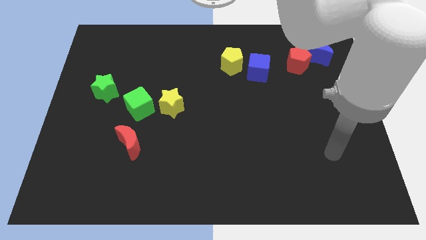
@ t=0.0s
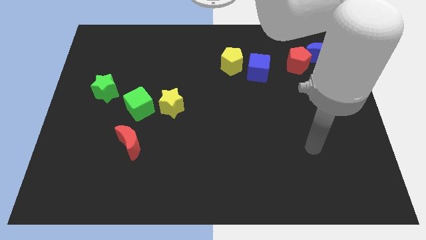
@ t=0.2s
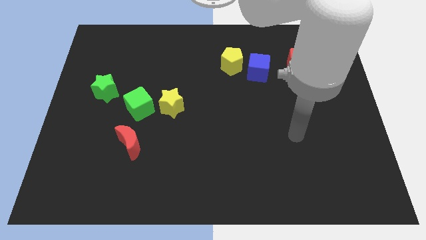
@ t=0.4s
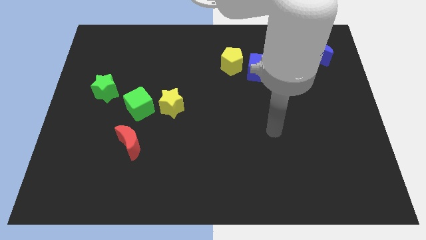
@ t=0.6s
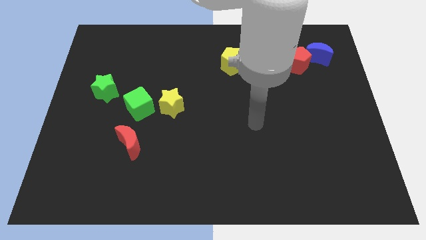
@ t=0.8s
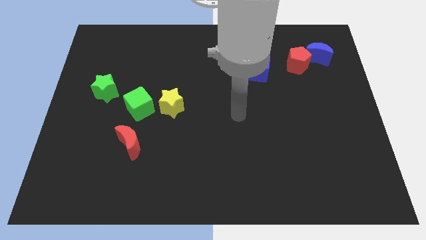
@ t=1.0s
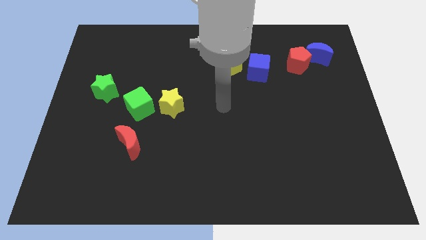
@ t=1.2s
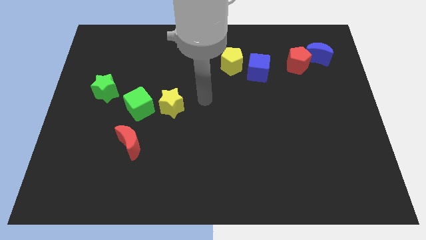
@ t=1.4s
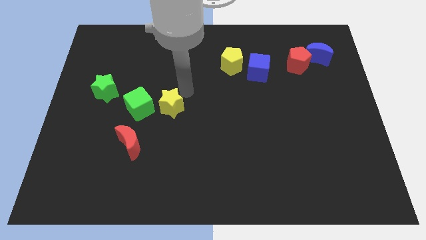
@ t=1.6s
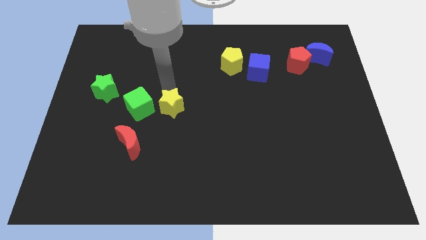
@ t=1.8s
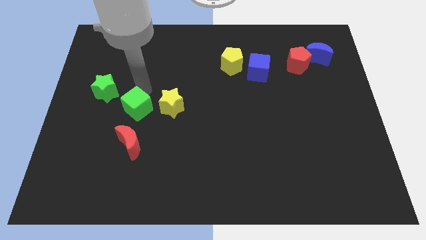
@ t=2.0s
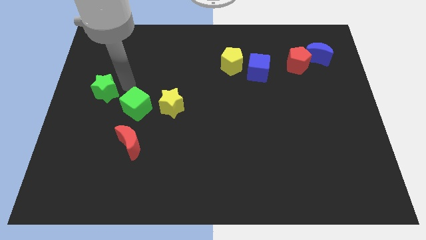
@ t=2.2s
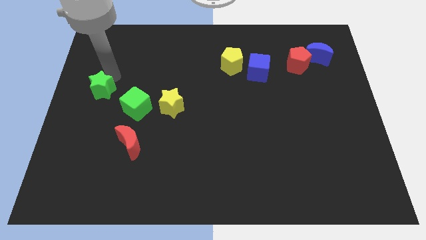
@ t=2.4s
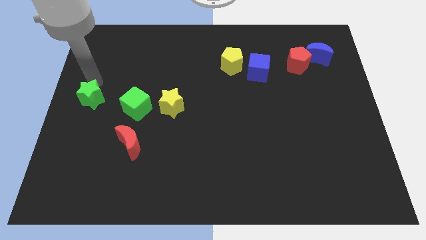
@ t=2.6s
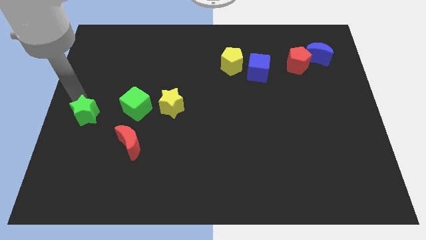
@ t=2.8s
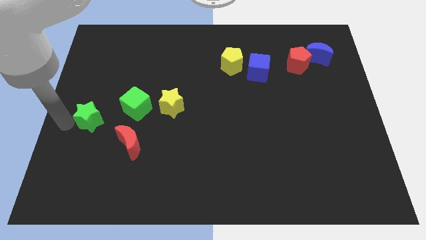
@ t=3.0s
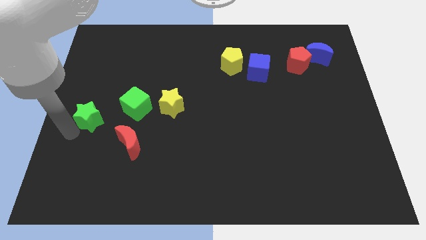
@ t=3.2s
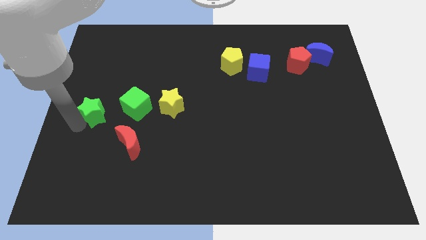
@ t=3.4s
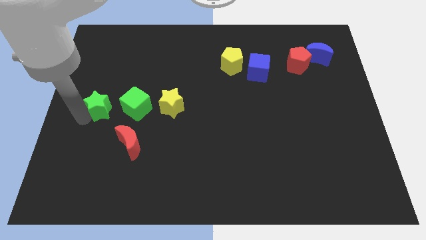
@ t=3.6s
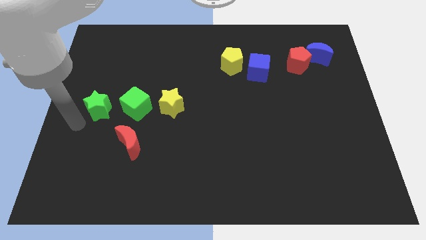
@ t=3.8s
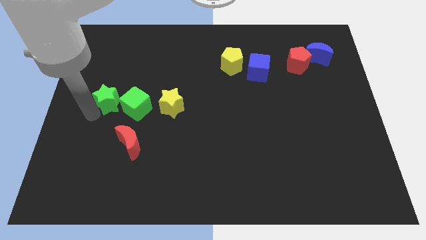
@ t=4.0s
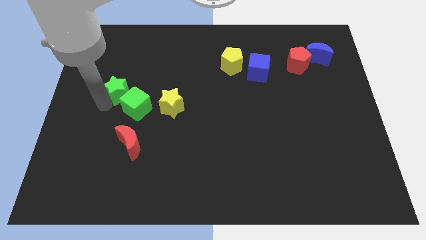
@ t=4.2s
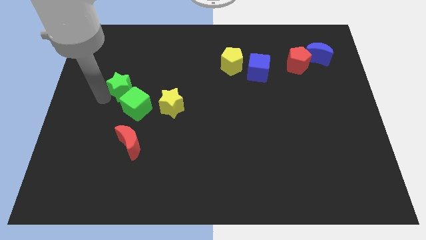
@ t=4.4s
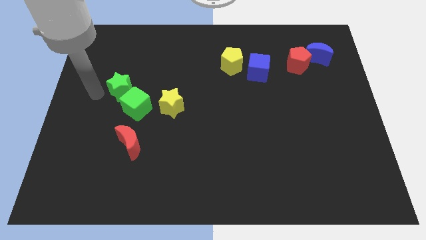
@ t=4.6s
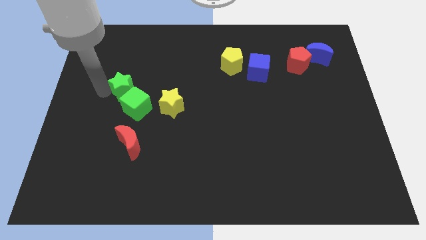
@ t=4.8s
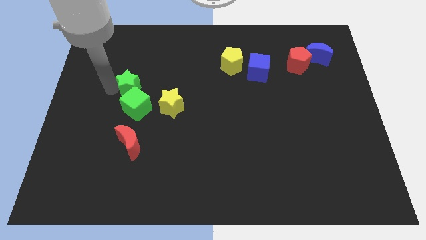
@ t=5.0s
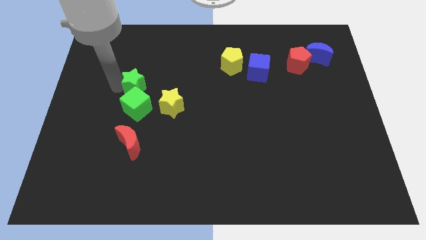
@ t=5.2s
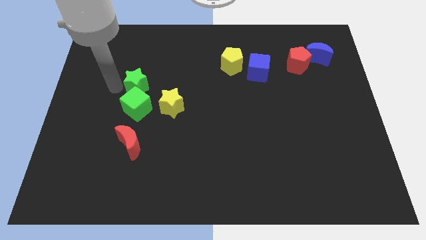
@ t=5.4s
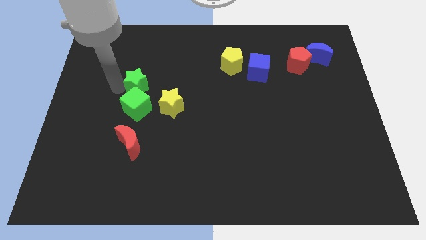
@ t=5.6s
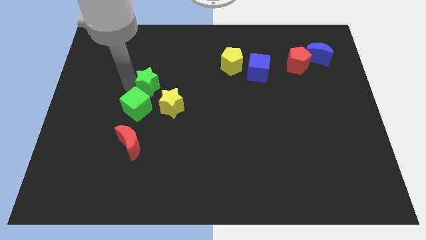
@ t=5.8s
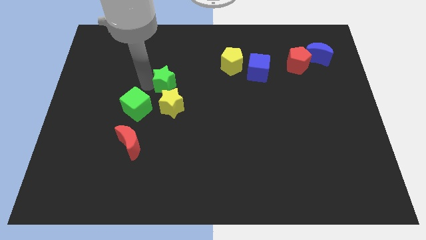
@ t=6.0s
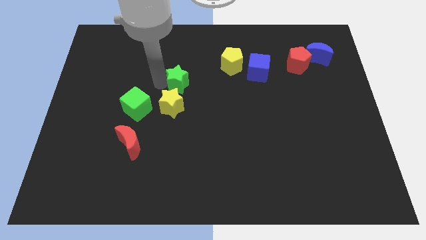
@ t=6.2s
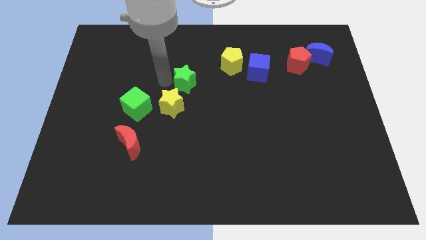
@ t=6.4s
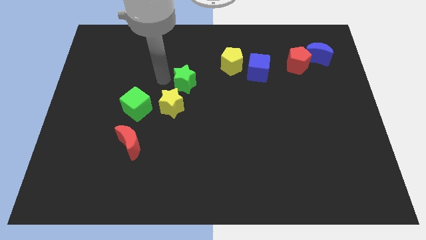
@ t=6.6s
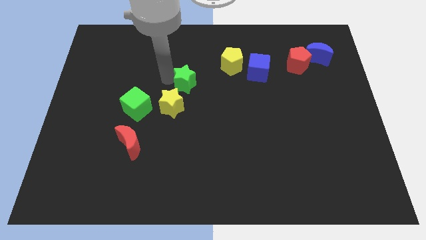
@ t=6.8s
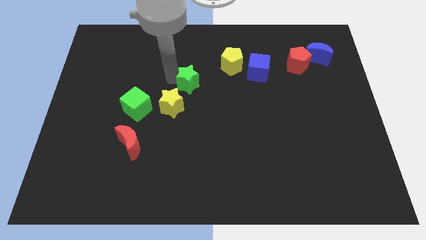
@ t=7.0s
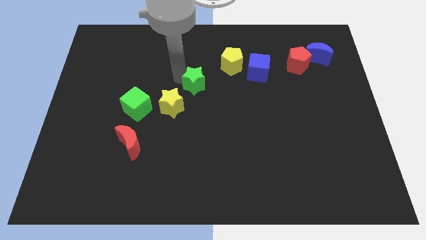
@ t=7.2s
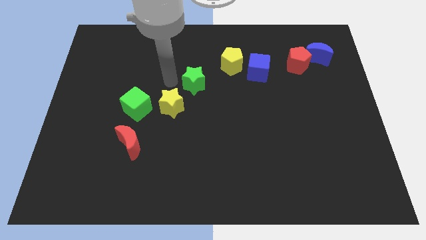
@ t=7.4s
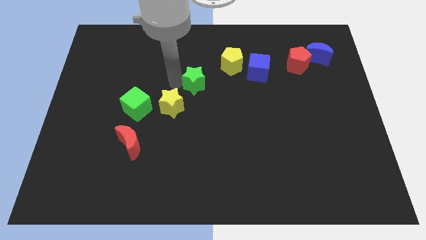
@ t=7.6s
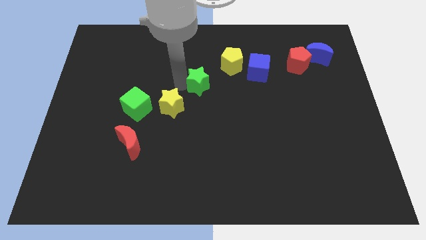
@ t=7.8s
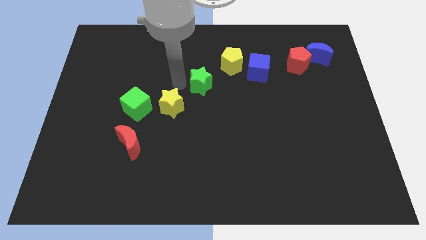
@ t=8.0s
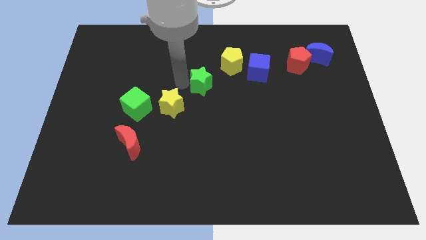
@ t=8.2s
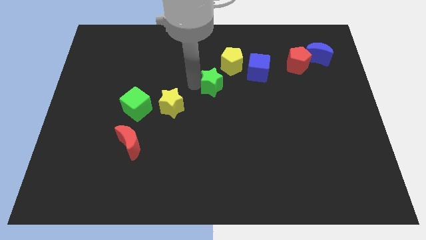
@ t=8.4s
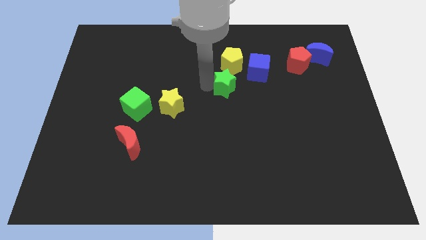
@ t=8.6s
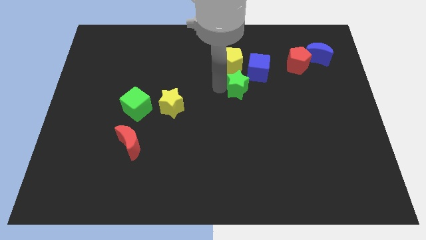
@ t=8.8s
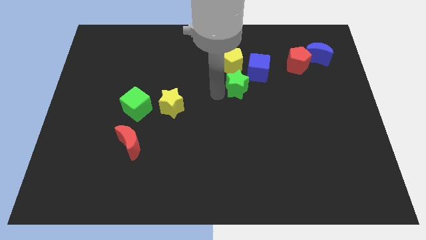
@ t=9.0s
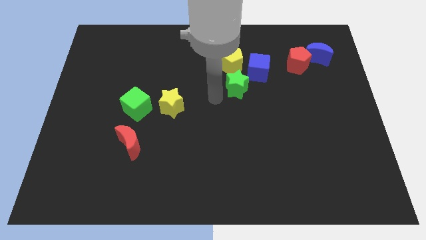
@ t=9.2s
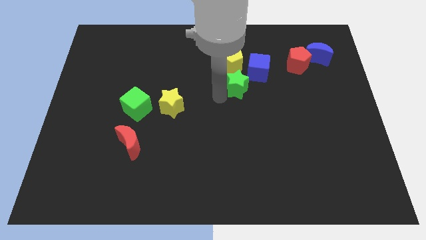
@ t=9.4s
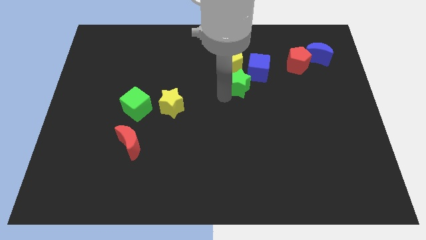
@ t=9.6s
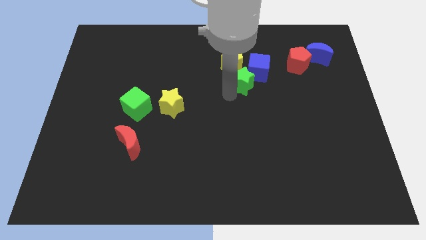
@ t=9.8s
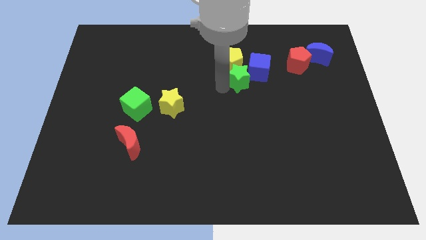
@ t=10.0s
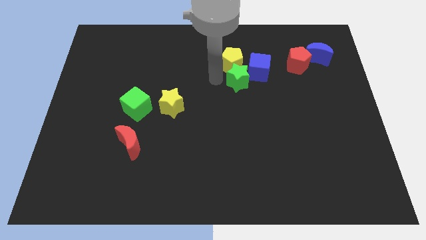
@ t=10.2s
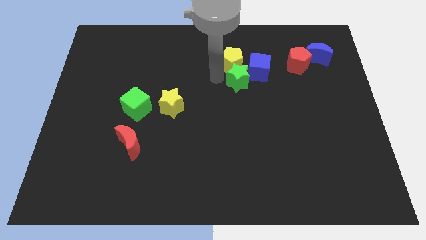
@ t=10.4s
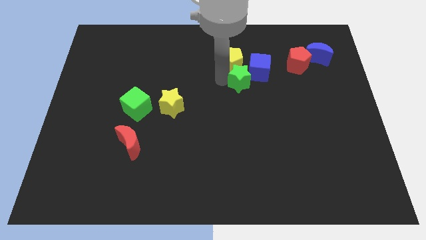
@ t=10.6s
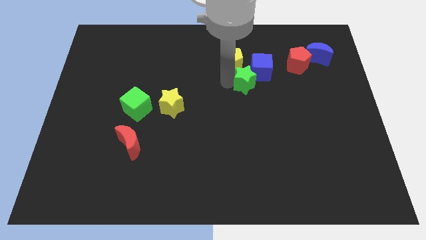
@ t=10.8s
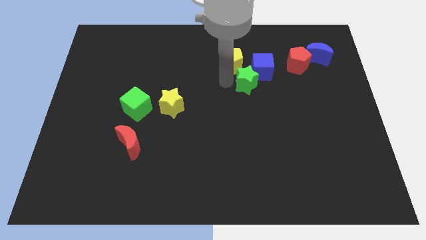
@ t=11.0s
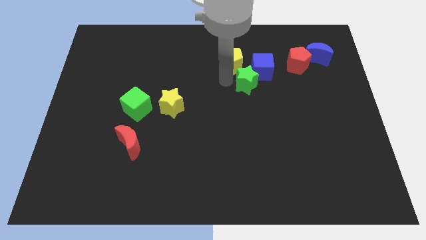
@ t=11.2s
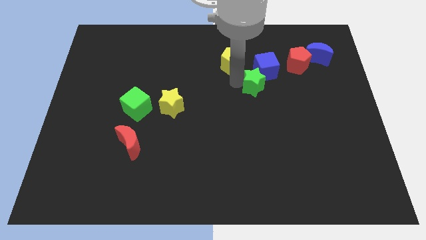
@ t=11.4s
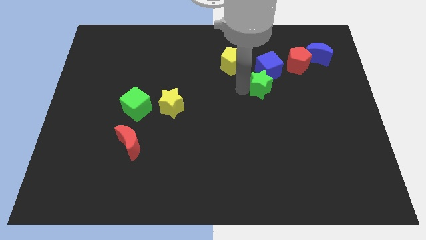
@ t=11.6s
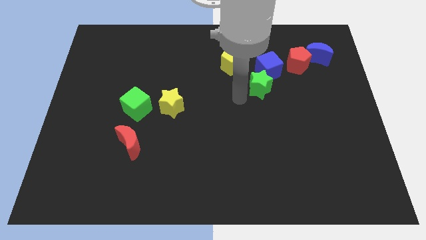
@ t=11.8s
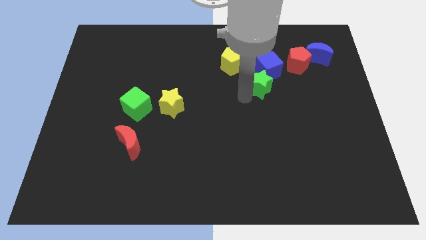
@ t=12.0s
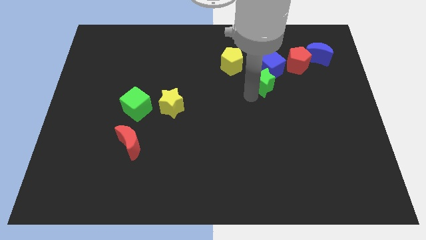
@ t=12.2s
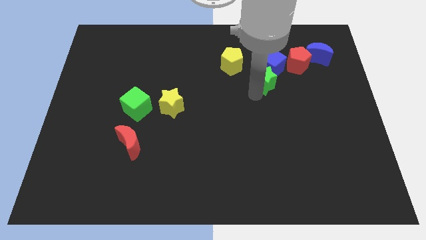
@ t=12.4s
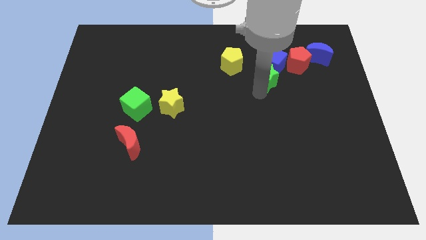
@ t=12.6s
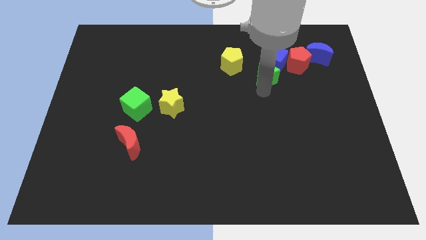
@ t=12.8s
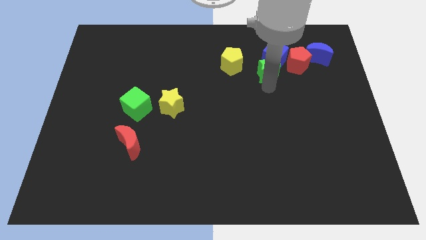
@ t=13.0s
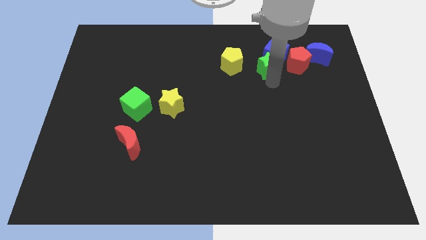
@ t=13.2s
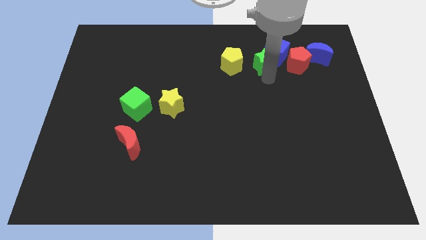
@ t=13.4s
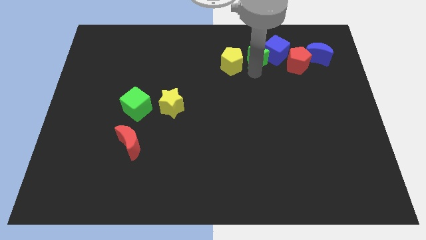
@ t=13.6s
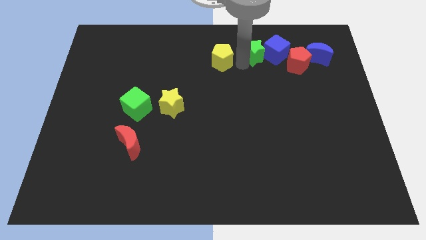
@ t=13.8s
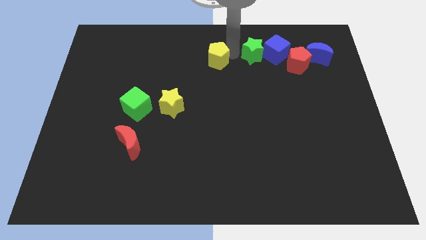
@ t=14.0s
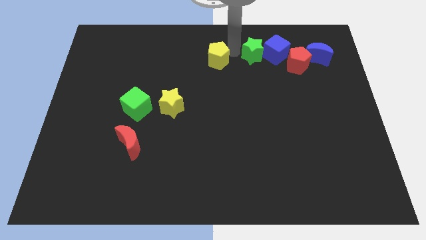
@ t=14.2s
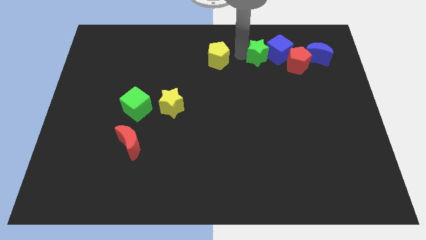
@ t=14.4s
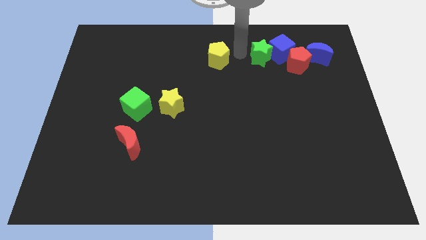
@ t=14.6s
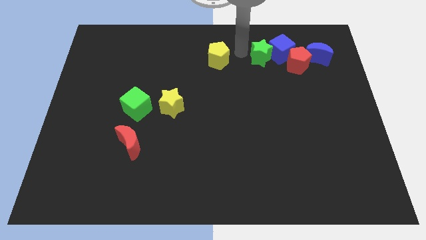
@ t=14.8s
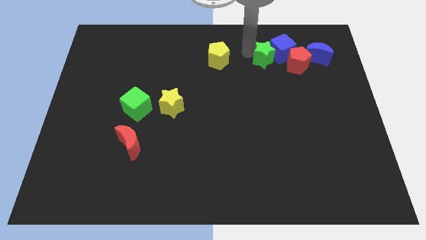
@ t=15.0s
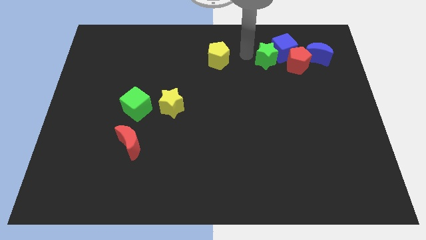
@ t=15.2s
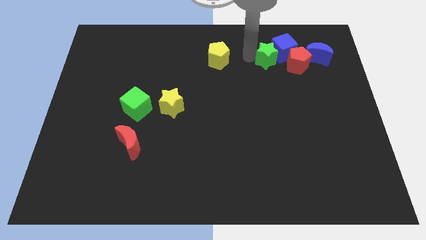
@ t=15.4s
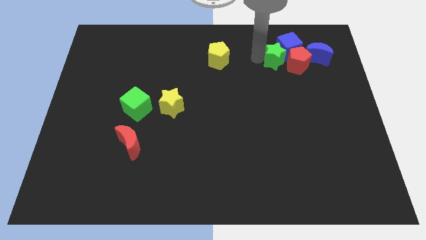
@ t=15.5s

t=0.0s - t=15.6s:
slide the green star towards the red pentagon

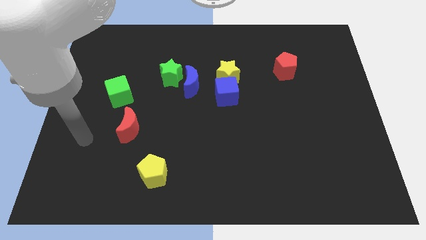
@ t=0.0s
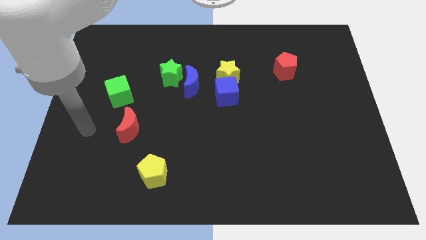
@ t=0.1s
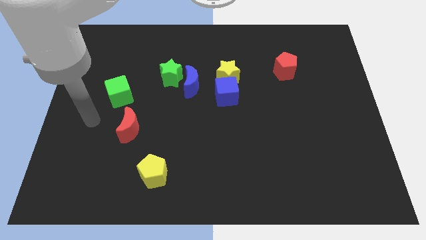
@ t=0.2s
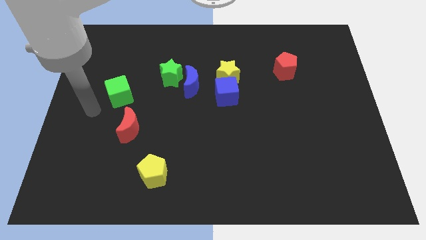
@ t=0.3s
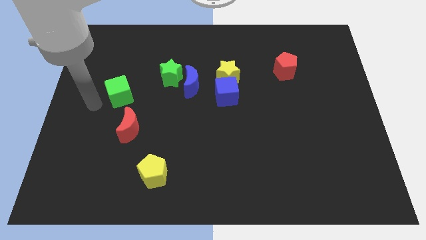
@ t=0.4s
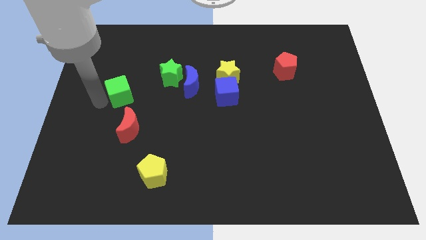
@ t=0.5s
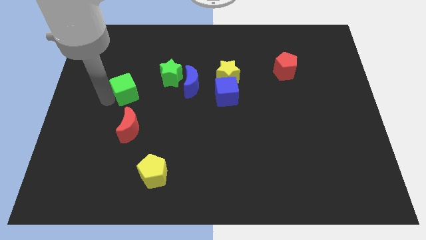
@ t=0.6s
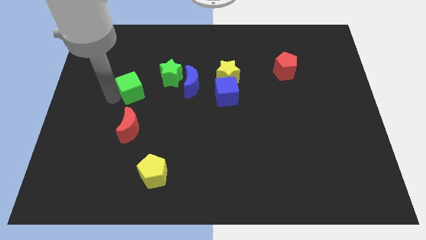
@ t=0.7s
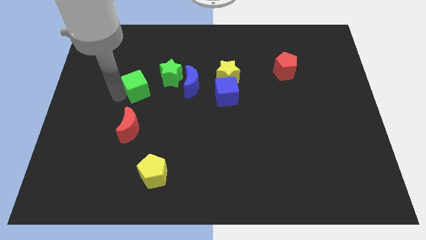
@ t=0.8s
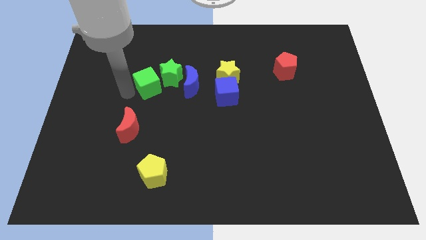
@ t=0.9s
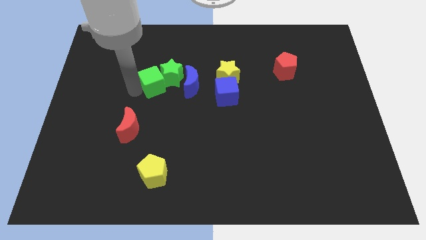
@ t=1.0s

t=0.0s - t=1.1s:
slide the green cube next to the green star
